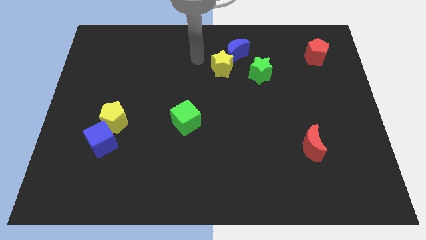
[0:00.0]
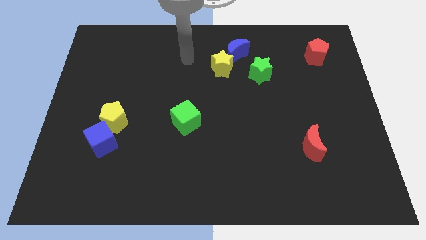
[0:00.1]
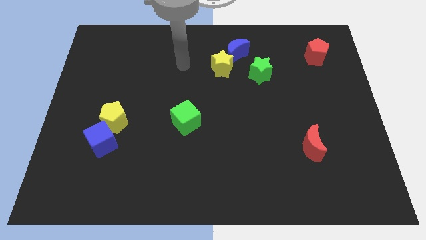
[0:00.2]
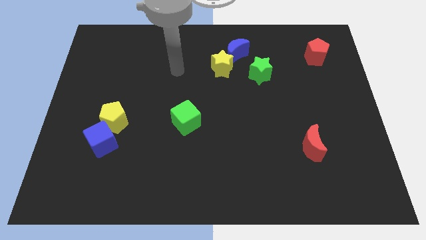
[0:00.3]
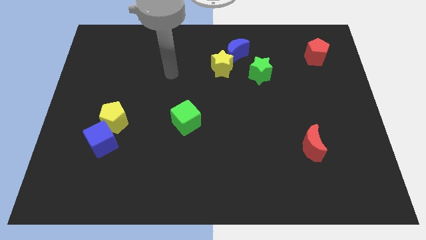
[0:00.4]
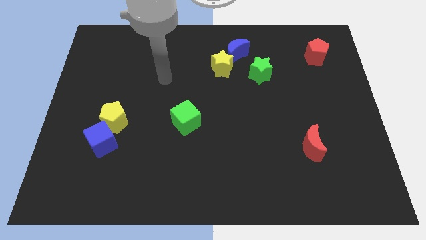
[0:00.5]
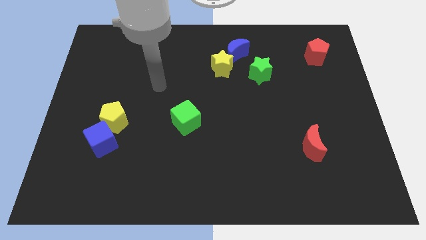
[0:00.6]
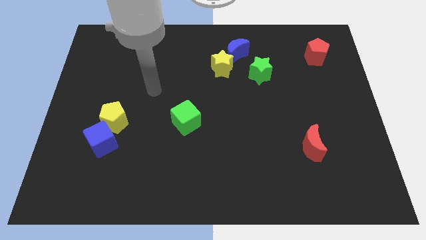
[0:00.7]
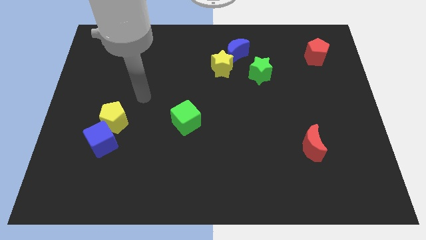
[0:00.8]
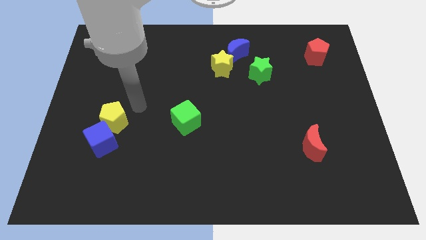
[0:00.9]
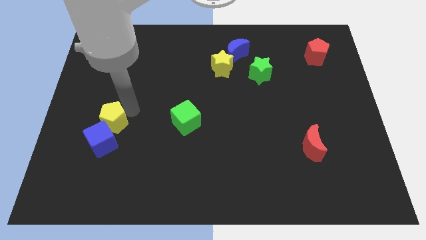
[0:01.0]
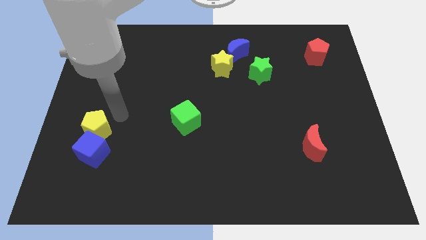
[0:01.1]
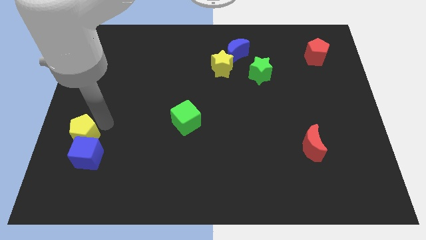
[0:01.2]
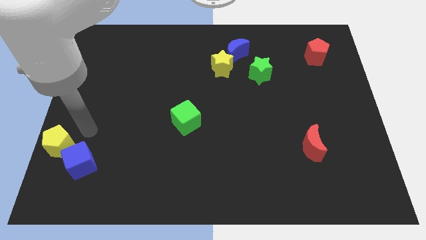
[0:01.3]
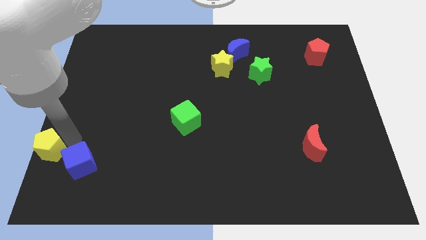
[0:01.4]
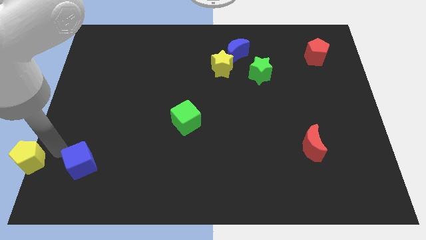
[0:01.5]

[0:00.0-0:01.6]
move the blue cube away from the yellow pentagon

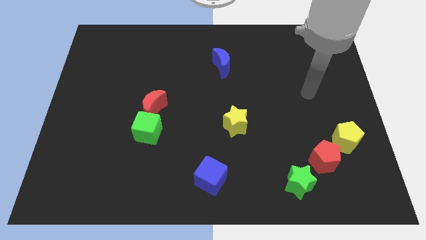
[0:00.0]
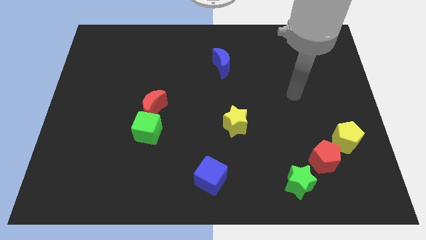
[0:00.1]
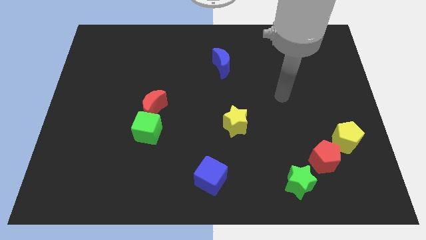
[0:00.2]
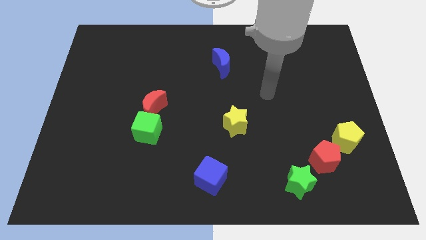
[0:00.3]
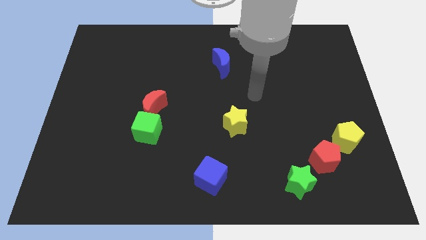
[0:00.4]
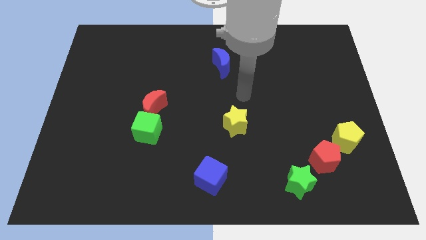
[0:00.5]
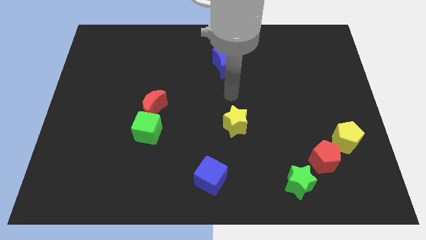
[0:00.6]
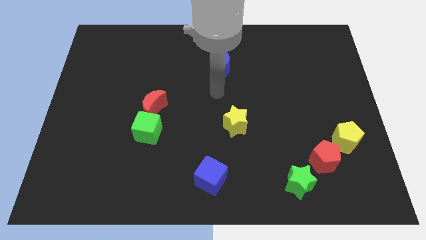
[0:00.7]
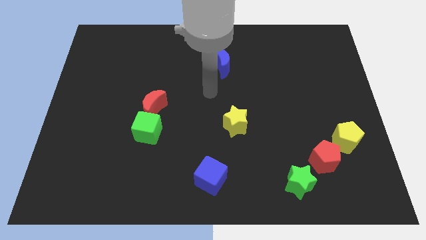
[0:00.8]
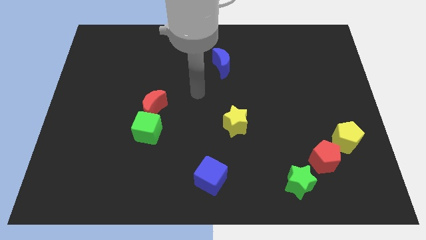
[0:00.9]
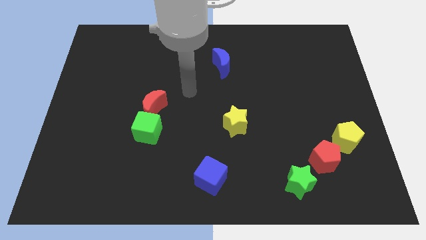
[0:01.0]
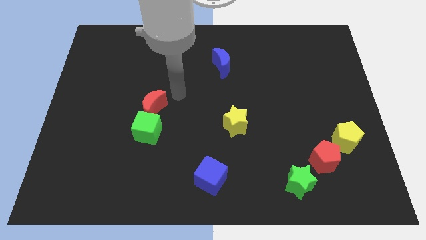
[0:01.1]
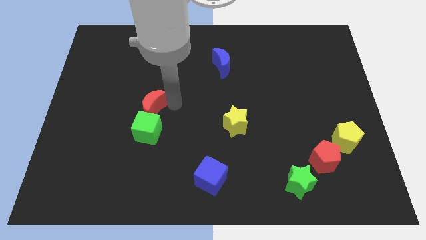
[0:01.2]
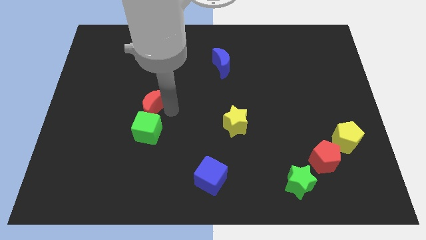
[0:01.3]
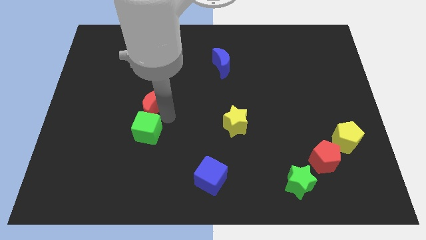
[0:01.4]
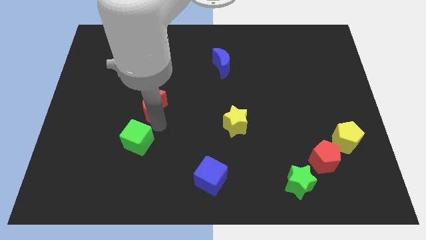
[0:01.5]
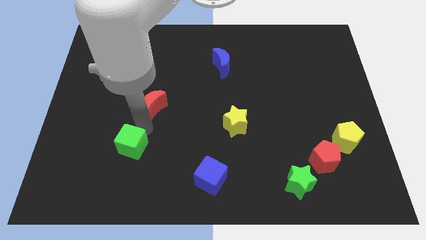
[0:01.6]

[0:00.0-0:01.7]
separate the red moon from the green cube

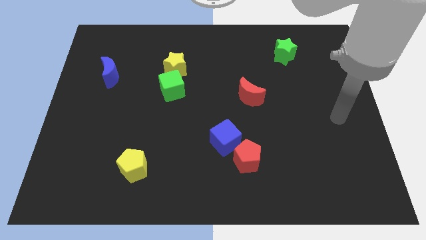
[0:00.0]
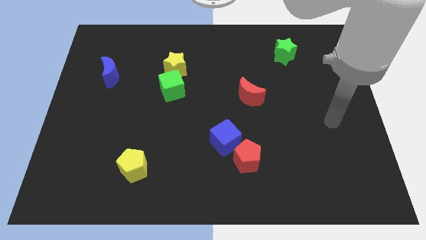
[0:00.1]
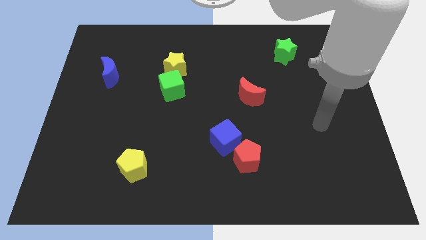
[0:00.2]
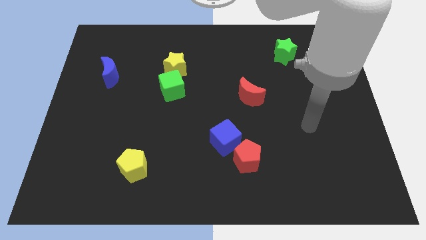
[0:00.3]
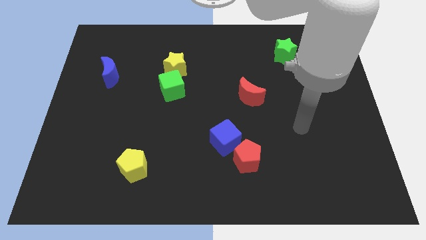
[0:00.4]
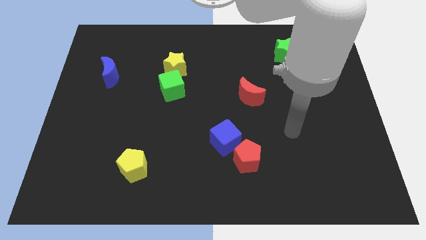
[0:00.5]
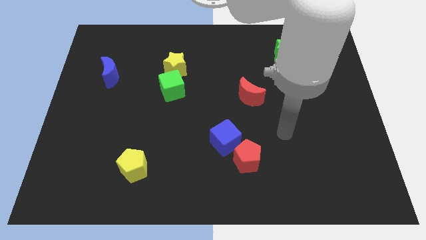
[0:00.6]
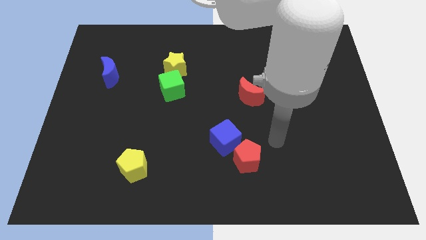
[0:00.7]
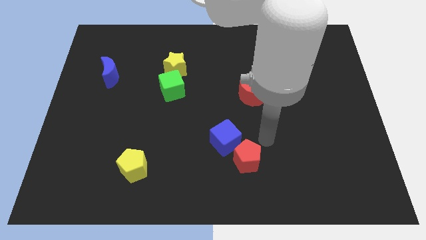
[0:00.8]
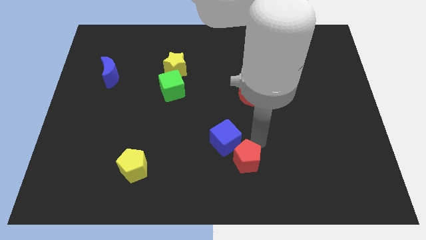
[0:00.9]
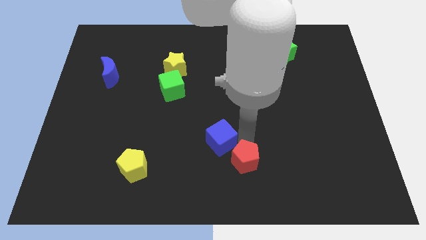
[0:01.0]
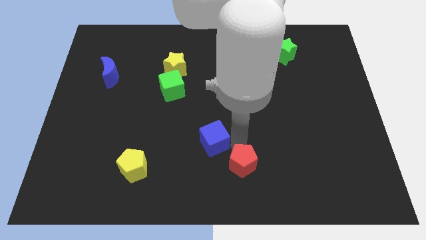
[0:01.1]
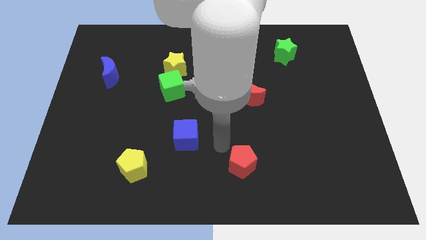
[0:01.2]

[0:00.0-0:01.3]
separate the red pentagon from the blue cube

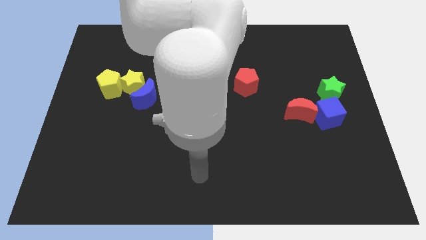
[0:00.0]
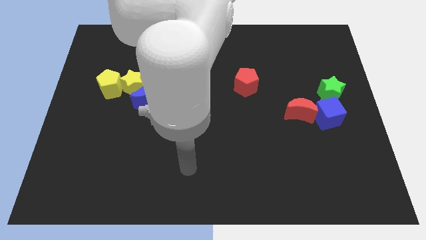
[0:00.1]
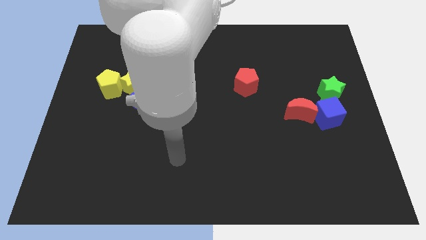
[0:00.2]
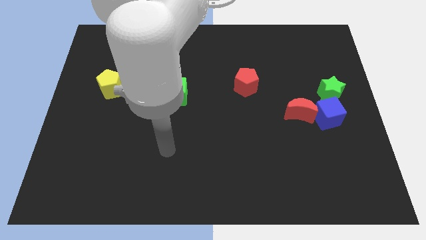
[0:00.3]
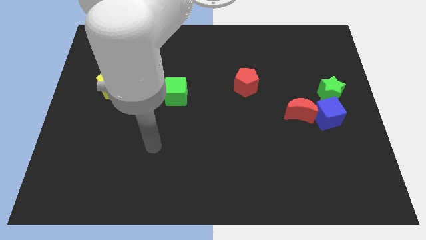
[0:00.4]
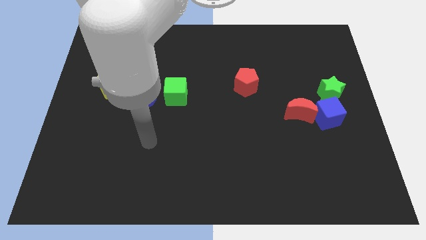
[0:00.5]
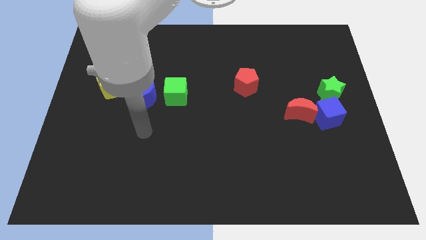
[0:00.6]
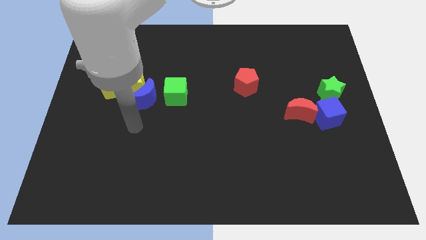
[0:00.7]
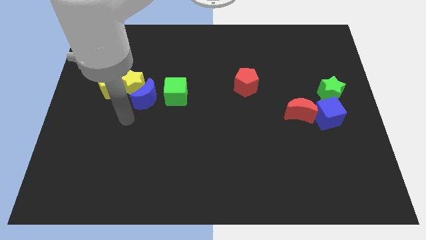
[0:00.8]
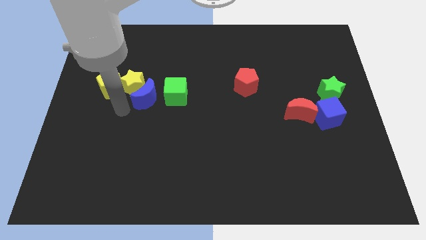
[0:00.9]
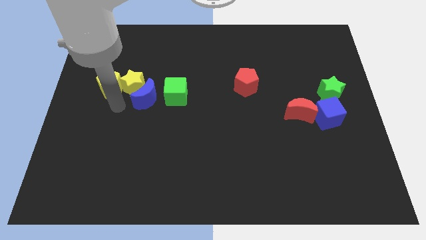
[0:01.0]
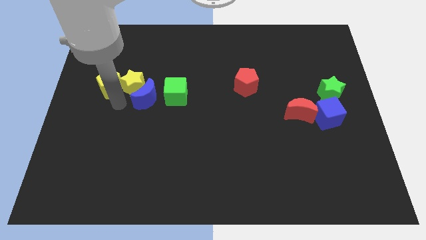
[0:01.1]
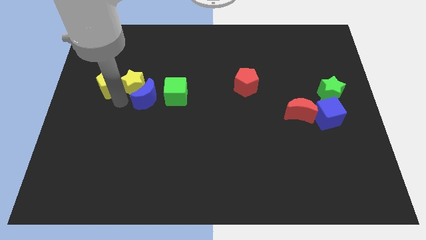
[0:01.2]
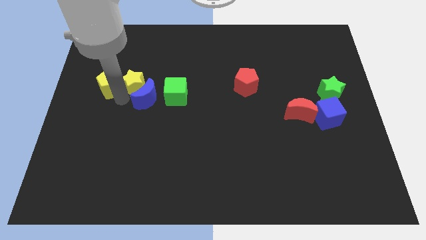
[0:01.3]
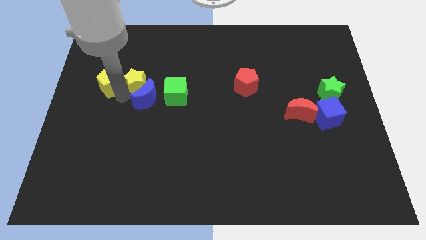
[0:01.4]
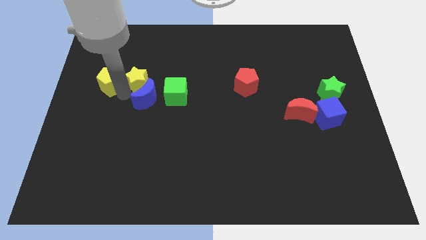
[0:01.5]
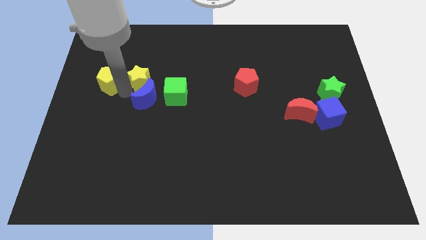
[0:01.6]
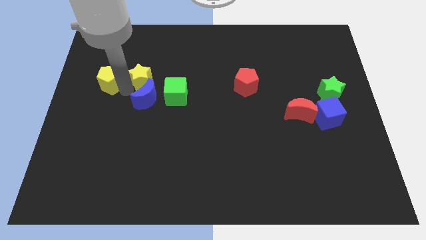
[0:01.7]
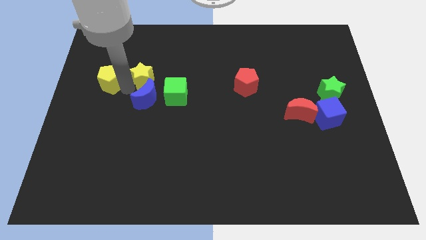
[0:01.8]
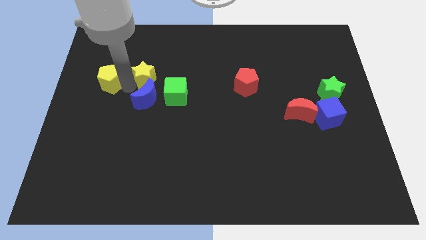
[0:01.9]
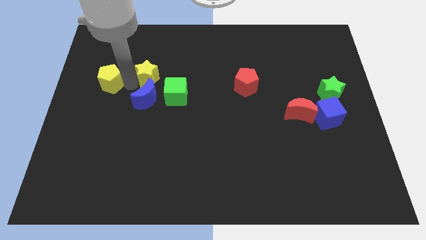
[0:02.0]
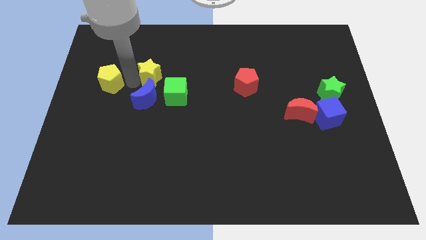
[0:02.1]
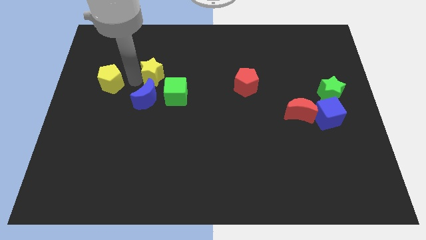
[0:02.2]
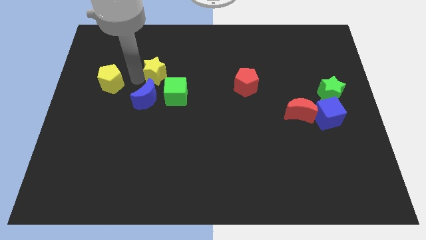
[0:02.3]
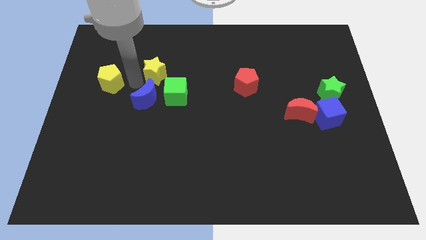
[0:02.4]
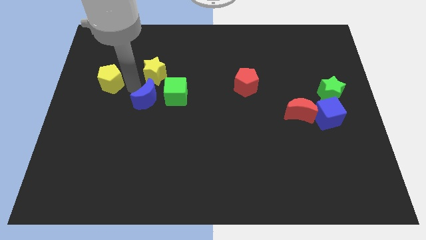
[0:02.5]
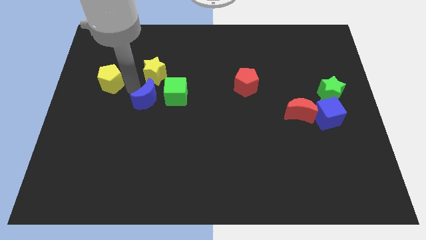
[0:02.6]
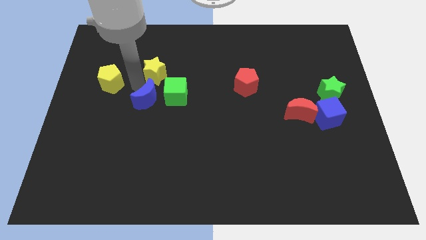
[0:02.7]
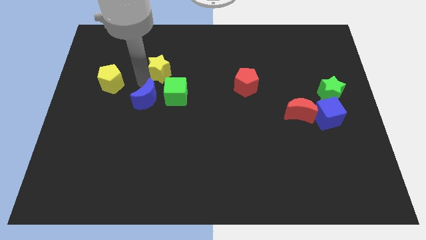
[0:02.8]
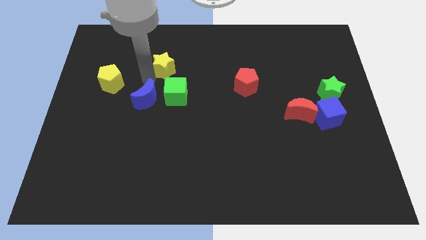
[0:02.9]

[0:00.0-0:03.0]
pull the yellow star apart from the blue moon and yellow pentagon

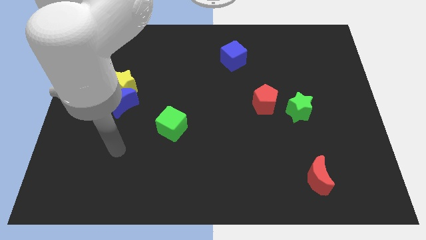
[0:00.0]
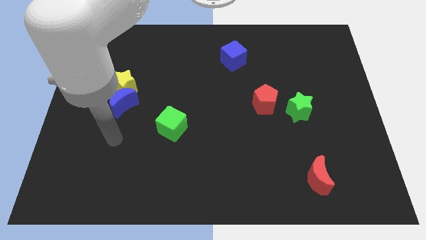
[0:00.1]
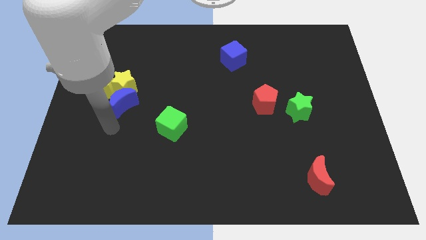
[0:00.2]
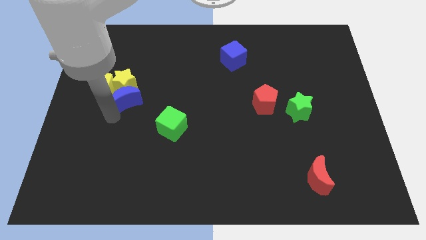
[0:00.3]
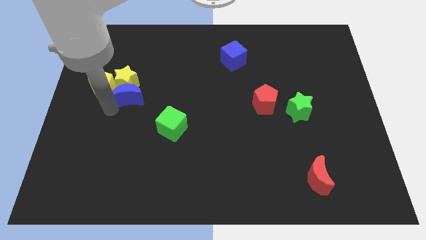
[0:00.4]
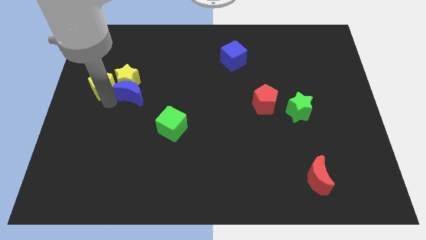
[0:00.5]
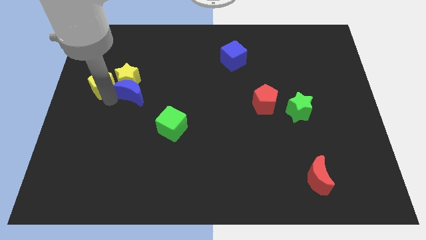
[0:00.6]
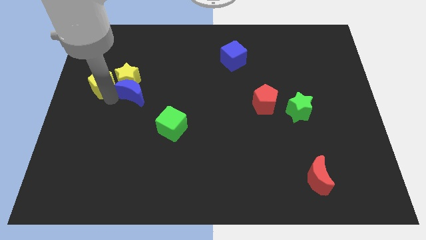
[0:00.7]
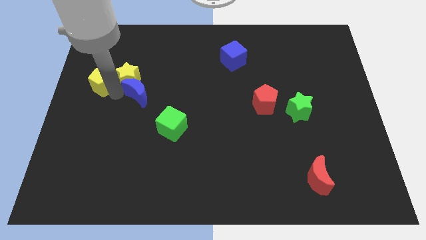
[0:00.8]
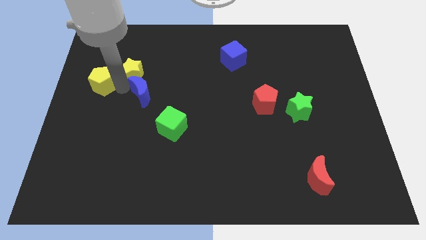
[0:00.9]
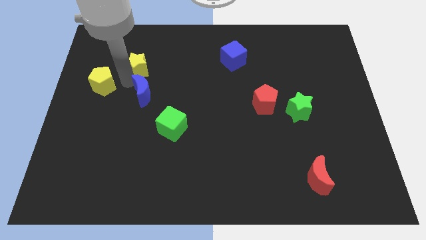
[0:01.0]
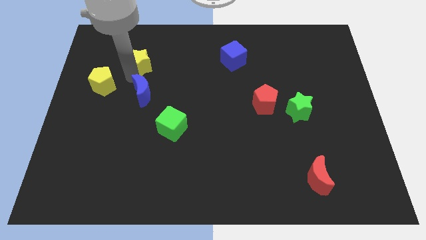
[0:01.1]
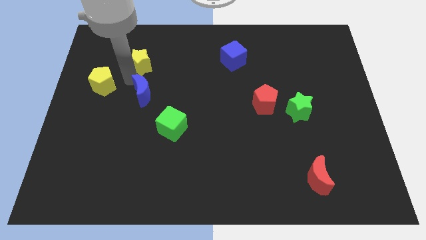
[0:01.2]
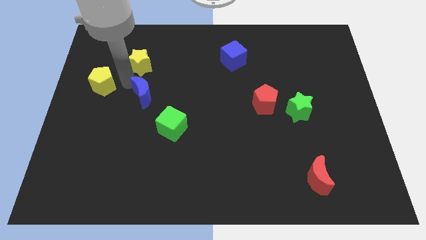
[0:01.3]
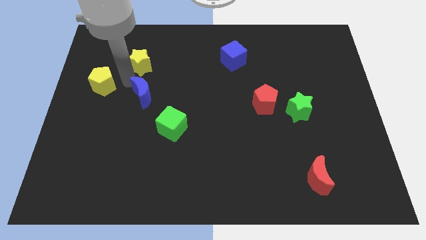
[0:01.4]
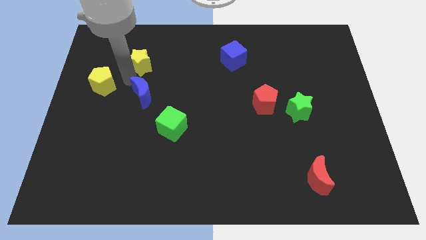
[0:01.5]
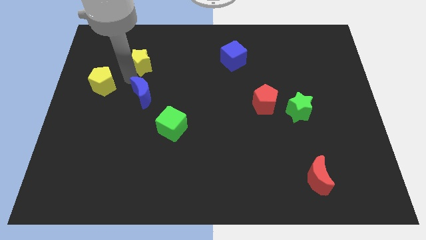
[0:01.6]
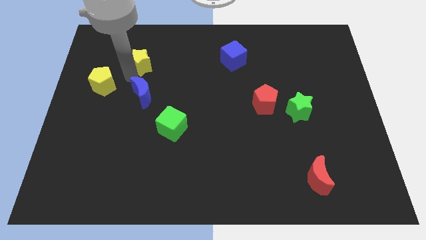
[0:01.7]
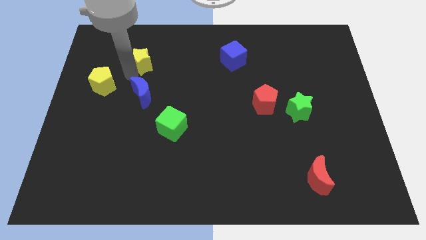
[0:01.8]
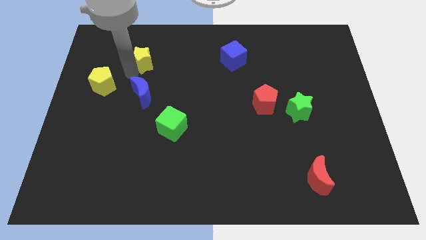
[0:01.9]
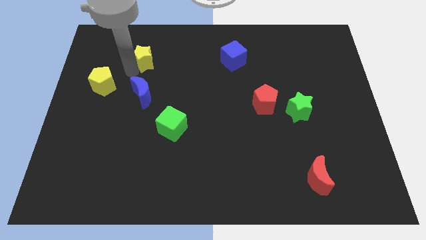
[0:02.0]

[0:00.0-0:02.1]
move the yellow star away from the yellow pentagon and blue moon
